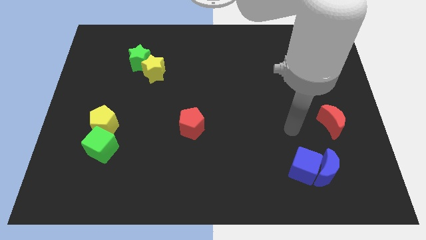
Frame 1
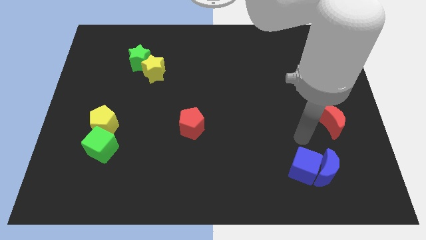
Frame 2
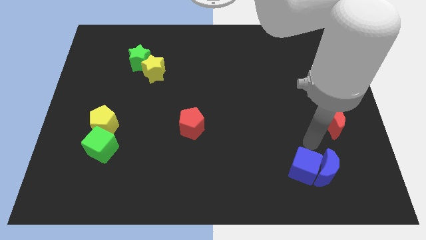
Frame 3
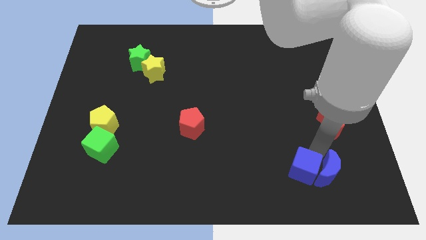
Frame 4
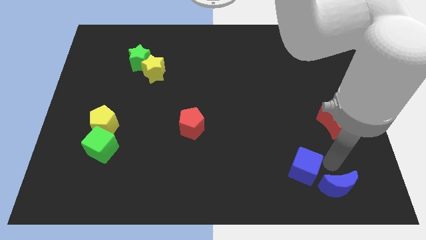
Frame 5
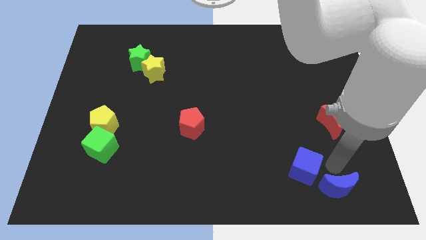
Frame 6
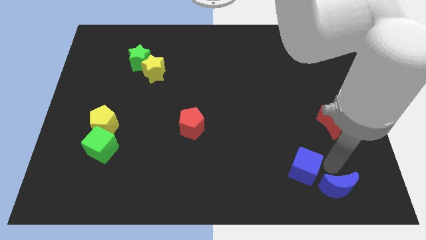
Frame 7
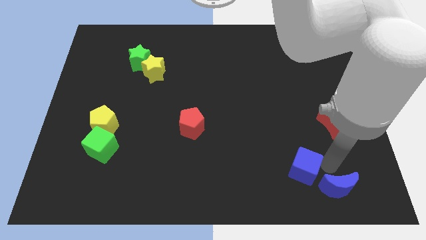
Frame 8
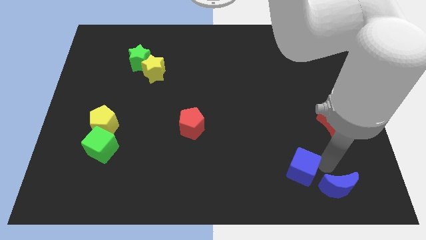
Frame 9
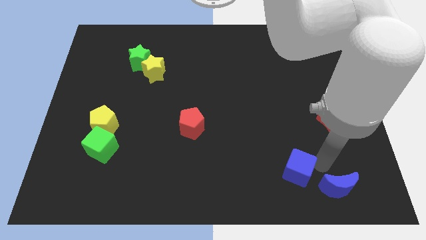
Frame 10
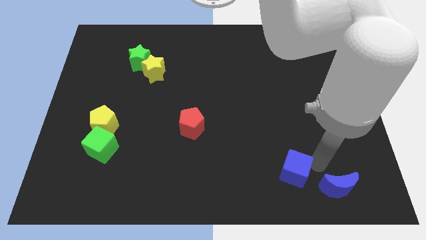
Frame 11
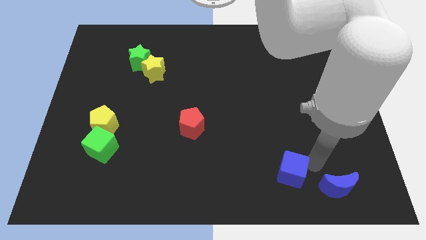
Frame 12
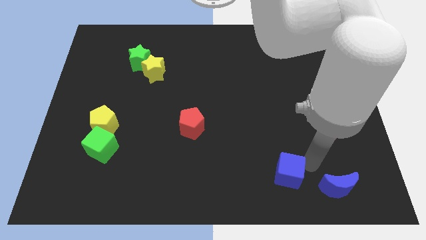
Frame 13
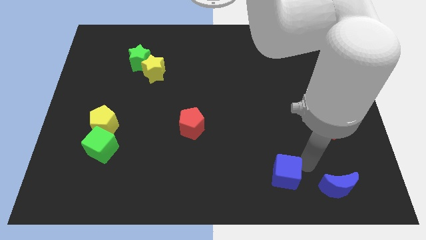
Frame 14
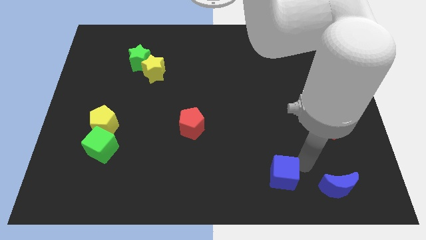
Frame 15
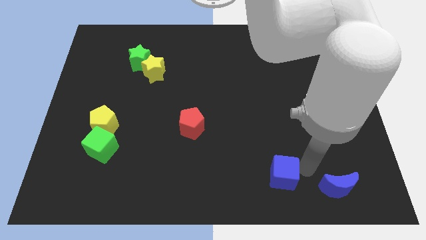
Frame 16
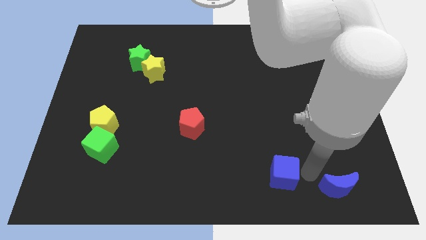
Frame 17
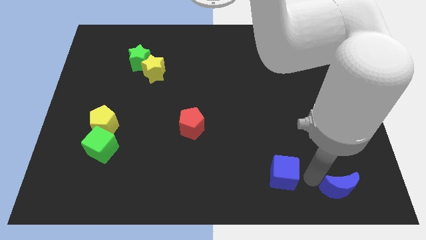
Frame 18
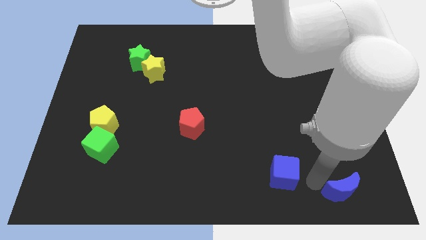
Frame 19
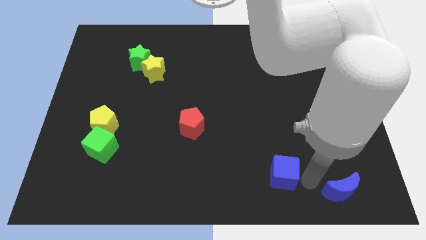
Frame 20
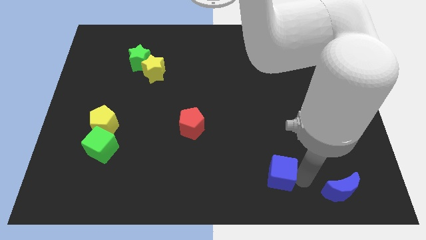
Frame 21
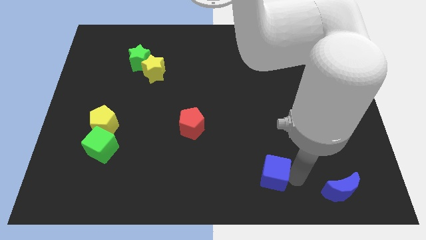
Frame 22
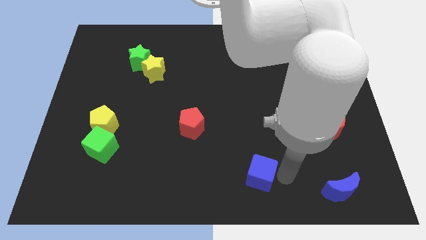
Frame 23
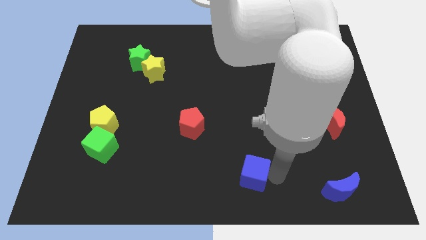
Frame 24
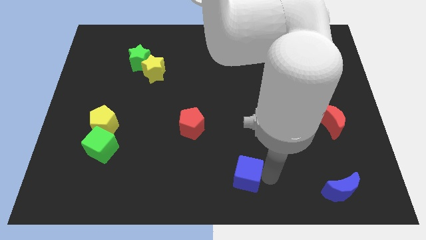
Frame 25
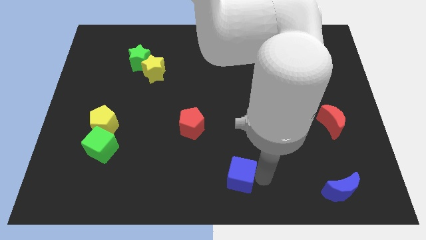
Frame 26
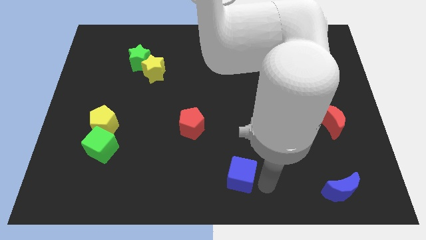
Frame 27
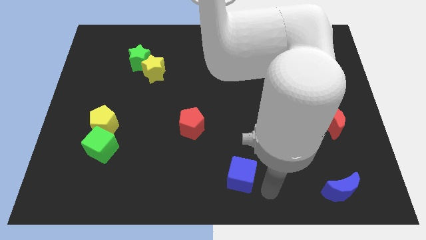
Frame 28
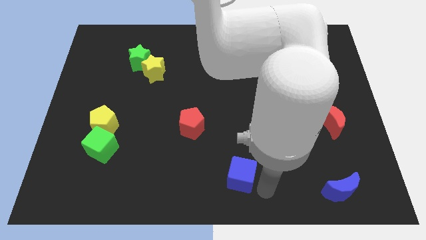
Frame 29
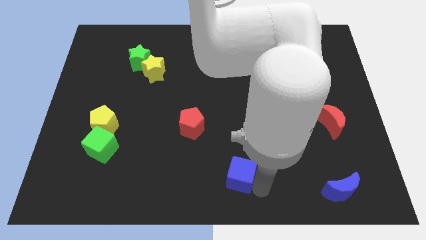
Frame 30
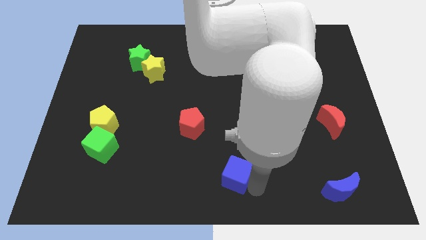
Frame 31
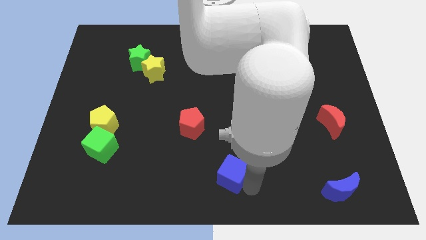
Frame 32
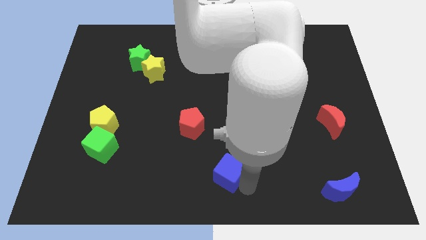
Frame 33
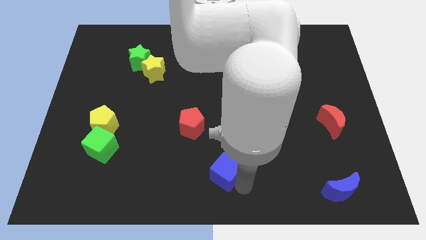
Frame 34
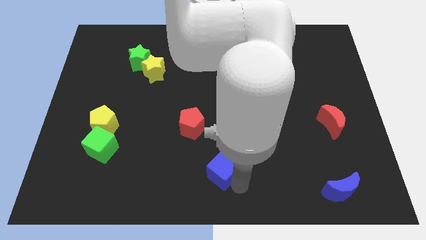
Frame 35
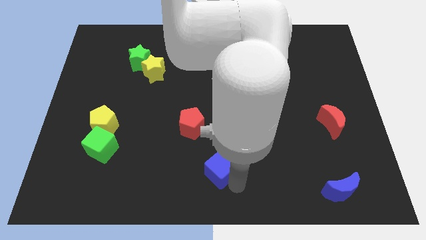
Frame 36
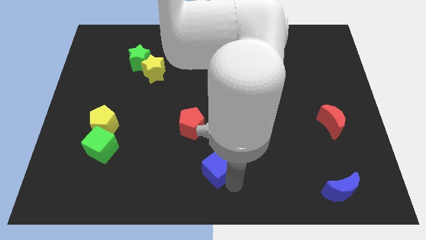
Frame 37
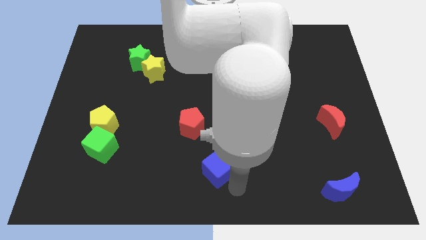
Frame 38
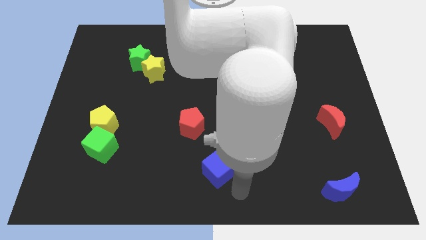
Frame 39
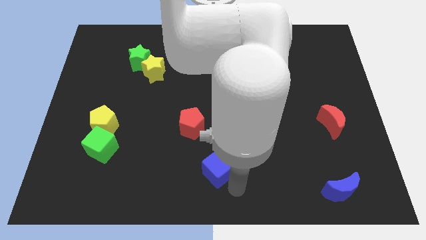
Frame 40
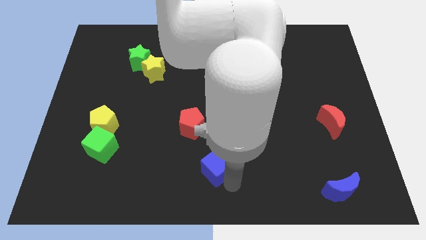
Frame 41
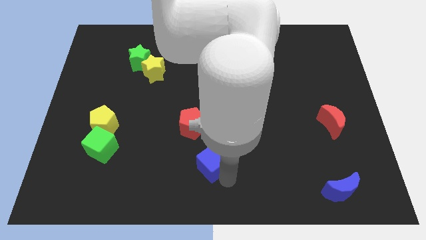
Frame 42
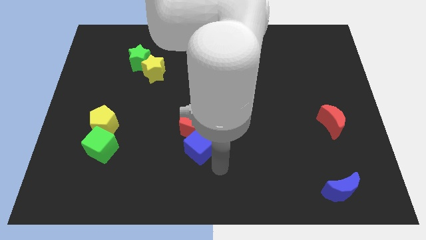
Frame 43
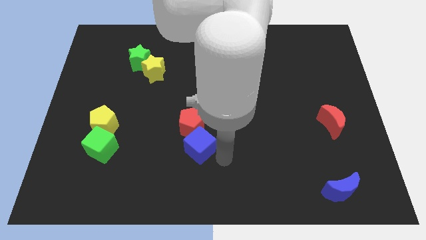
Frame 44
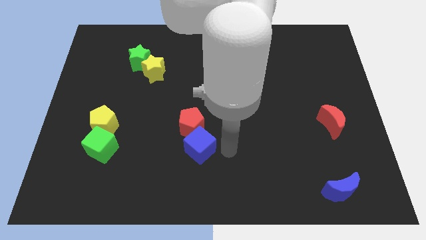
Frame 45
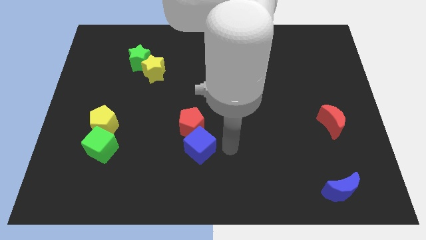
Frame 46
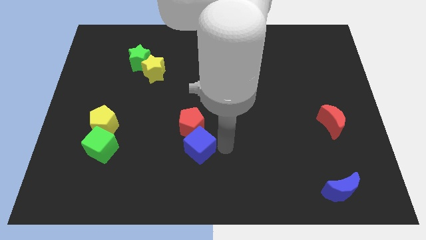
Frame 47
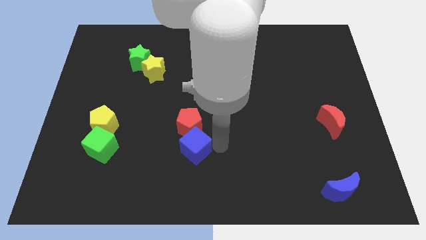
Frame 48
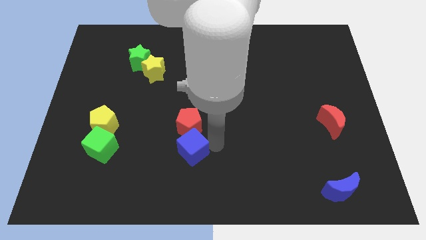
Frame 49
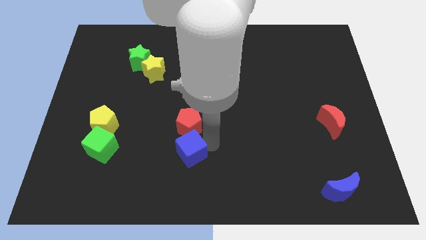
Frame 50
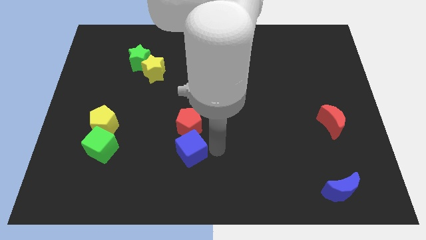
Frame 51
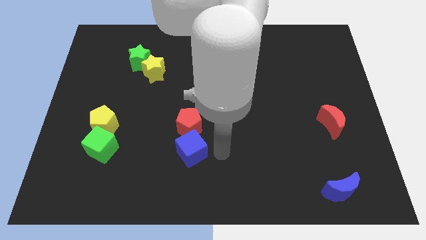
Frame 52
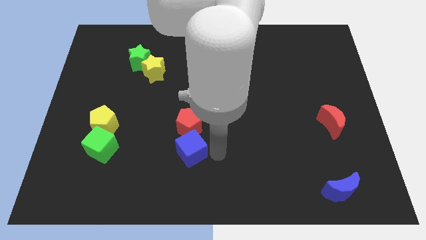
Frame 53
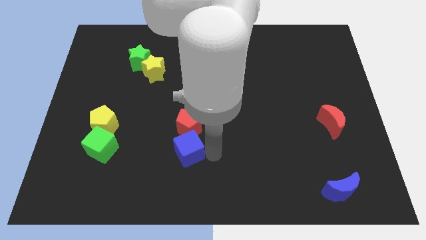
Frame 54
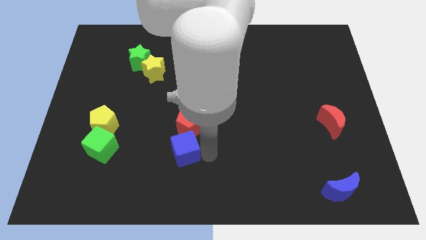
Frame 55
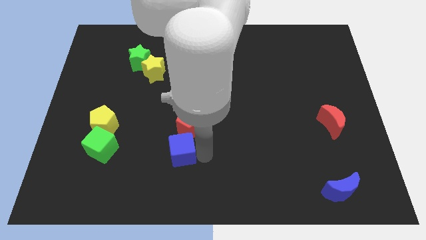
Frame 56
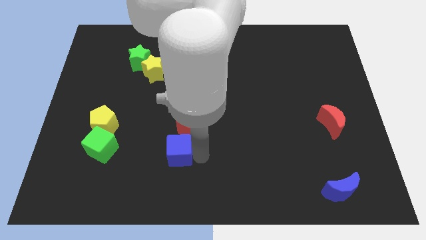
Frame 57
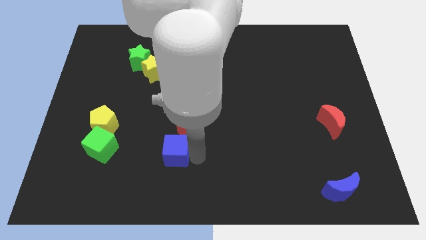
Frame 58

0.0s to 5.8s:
push the blue cube right of the green cube

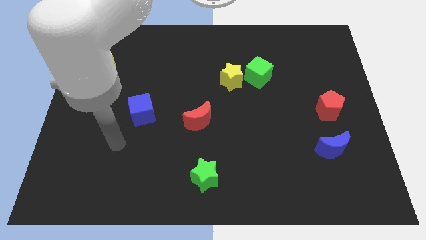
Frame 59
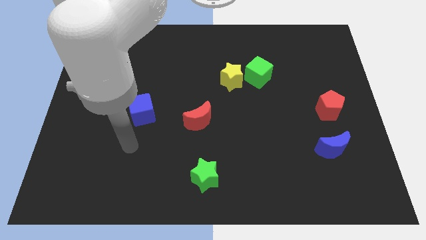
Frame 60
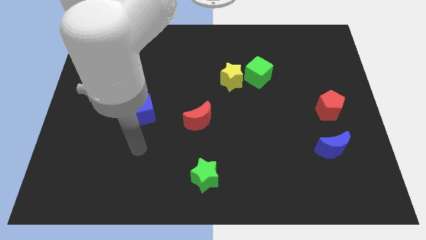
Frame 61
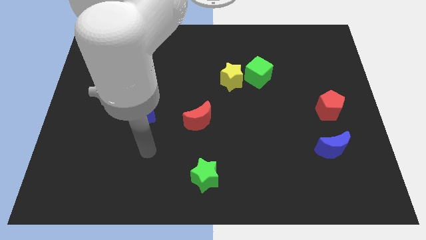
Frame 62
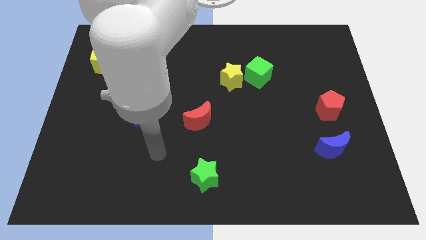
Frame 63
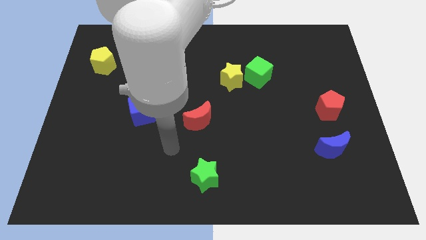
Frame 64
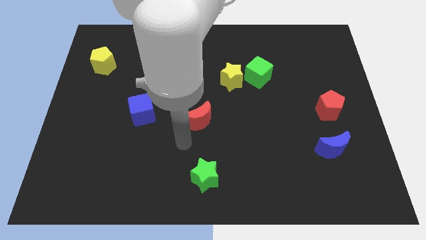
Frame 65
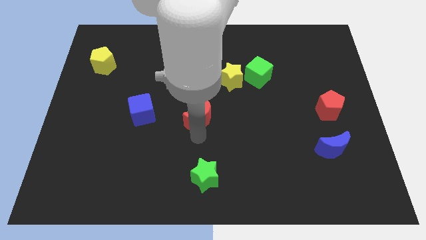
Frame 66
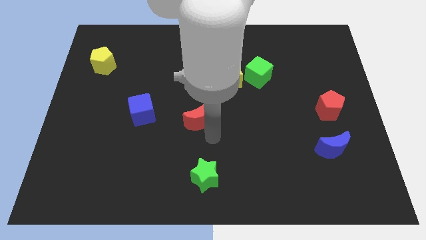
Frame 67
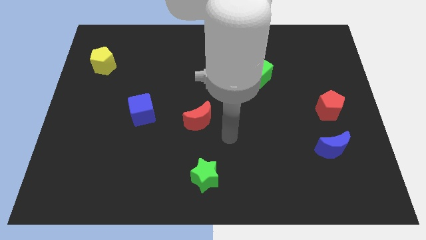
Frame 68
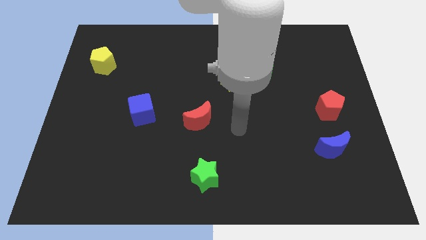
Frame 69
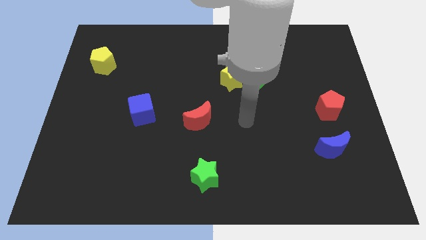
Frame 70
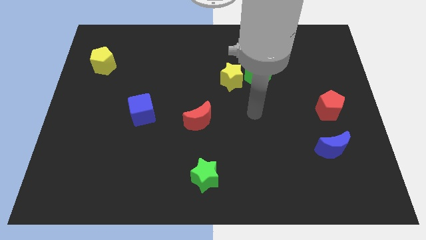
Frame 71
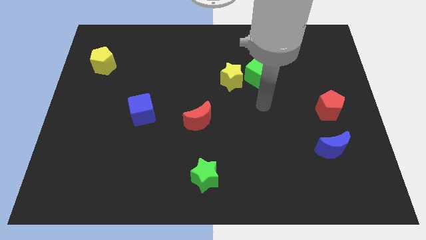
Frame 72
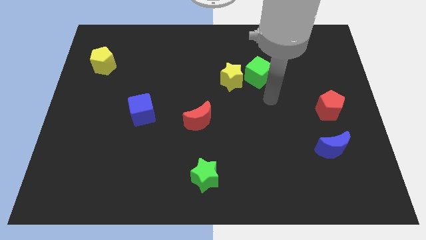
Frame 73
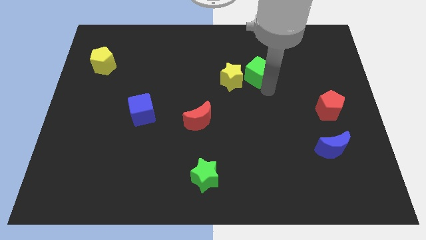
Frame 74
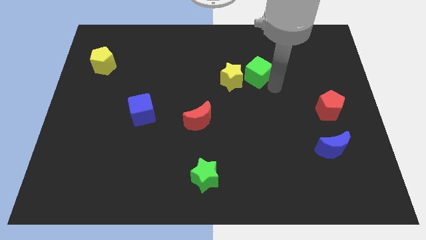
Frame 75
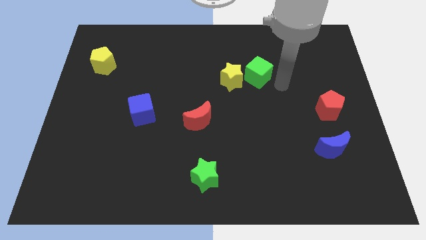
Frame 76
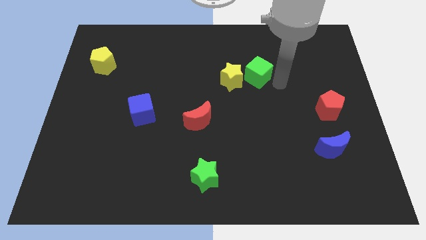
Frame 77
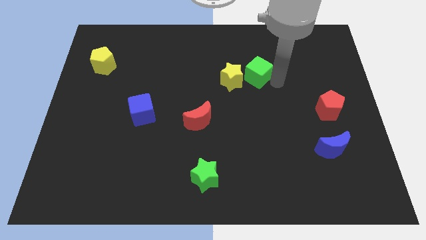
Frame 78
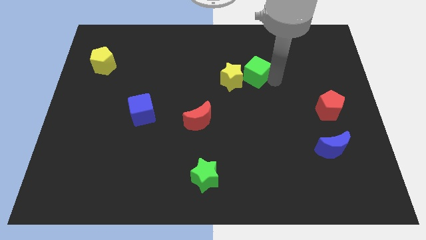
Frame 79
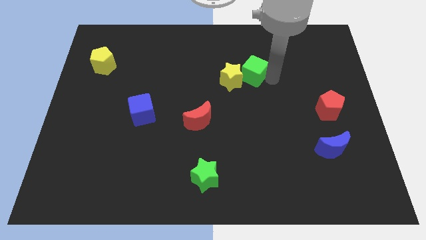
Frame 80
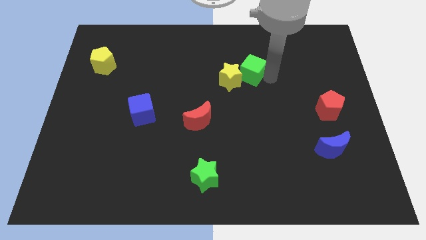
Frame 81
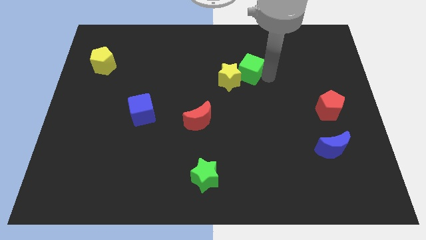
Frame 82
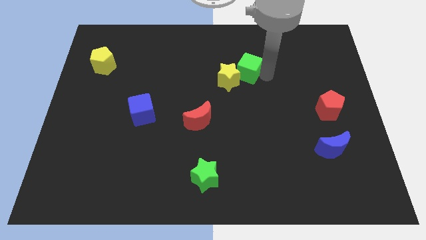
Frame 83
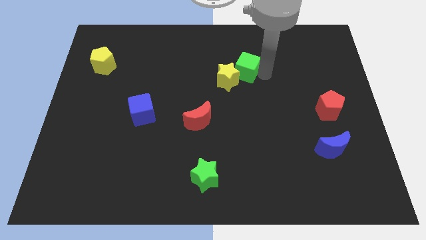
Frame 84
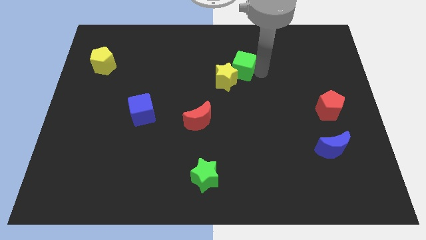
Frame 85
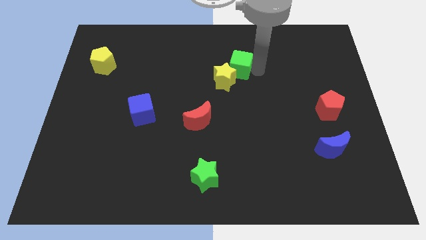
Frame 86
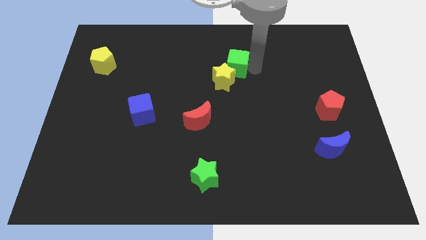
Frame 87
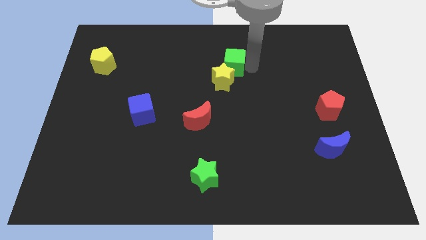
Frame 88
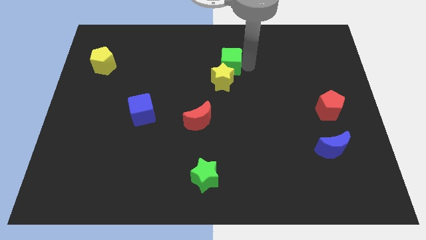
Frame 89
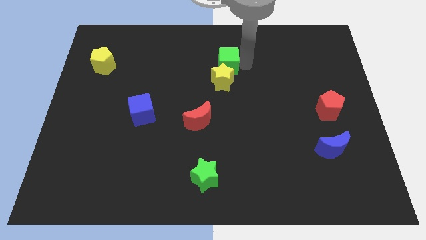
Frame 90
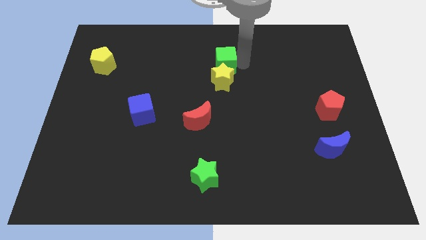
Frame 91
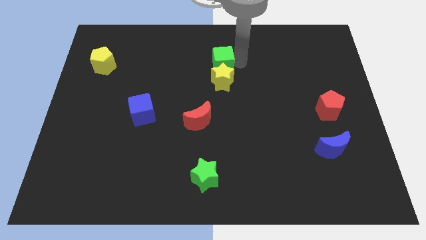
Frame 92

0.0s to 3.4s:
push the green cube to the top left side of the yellow star
